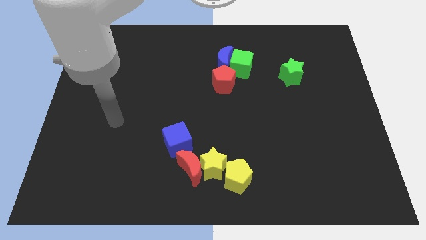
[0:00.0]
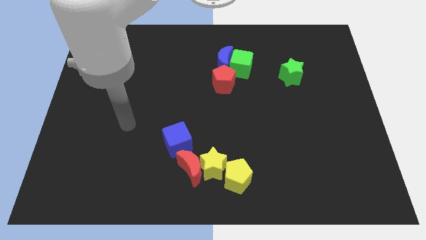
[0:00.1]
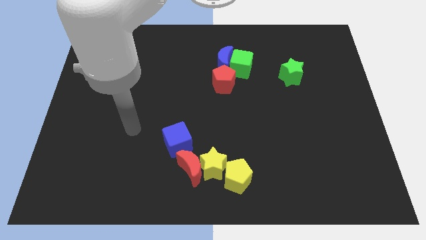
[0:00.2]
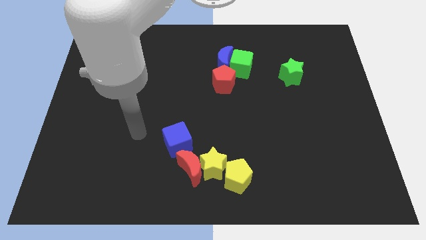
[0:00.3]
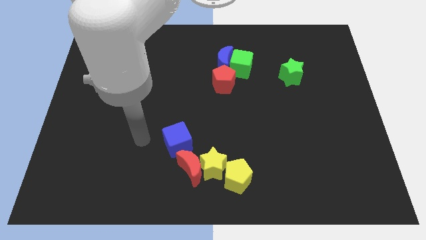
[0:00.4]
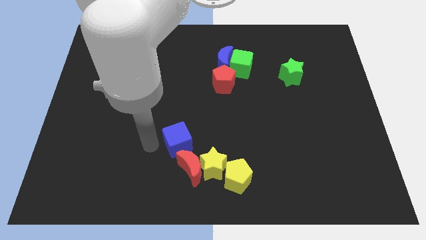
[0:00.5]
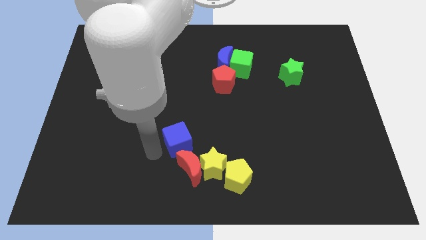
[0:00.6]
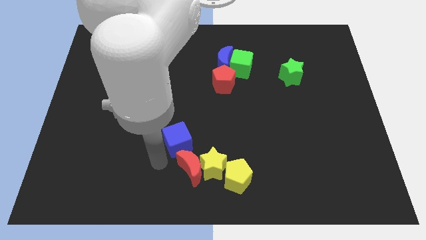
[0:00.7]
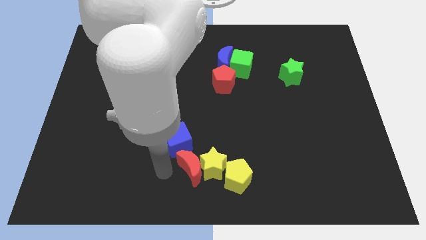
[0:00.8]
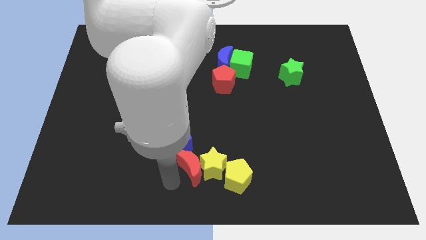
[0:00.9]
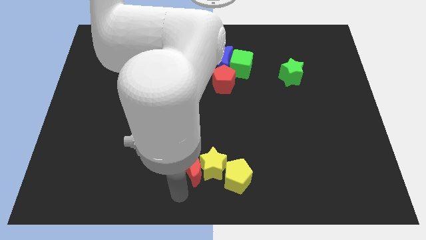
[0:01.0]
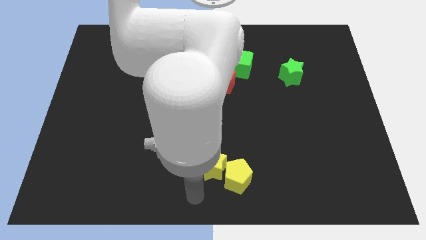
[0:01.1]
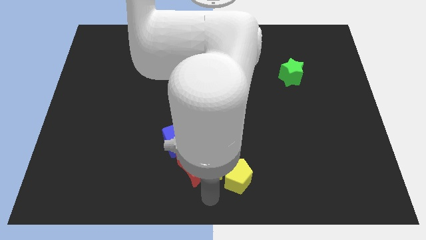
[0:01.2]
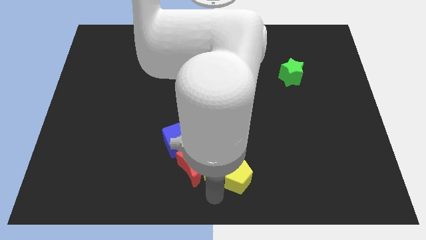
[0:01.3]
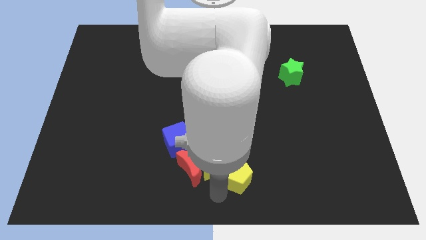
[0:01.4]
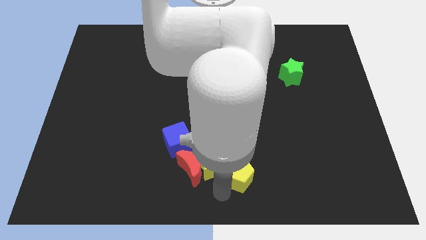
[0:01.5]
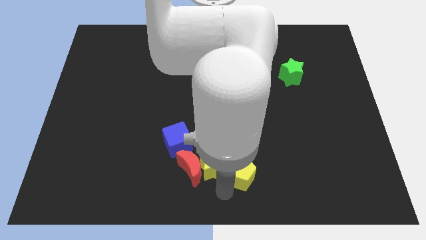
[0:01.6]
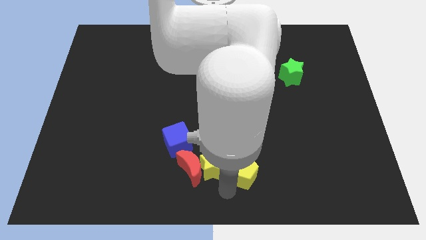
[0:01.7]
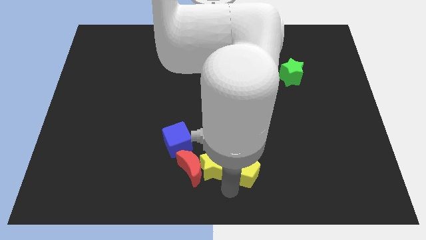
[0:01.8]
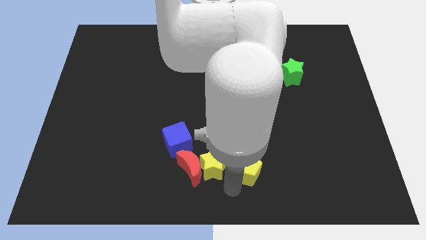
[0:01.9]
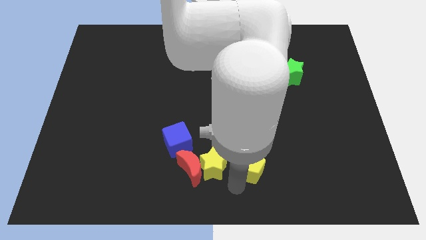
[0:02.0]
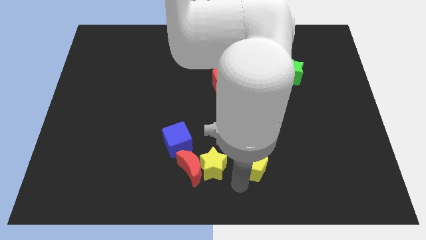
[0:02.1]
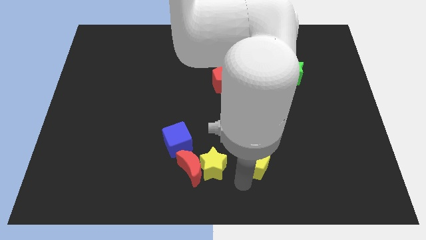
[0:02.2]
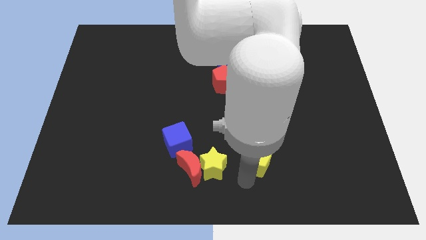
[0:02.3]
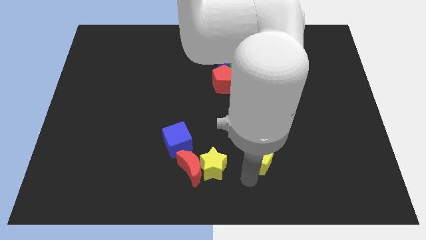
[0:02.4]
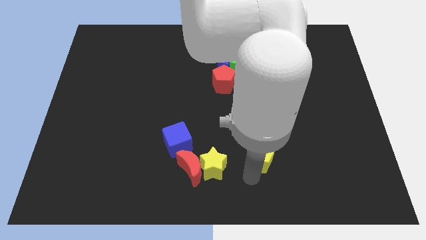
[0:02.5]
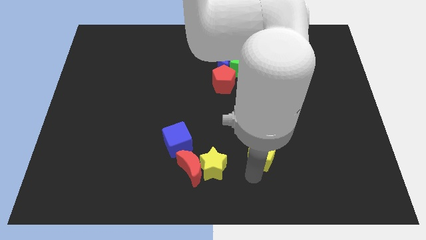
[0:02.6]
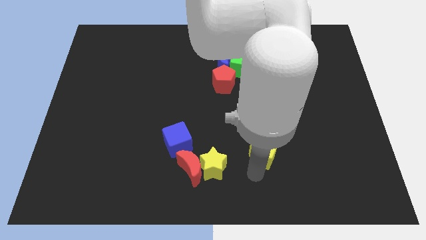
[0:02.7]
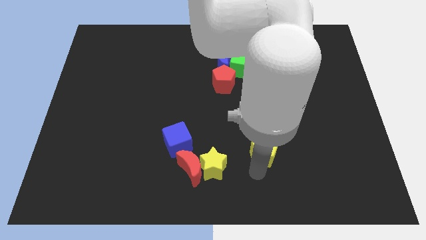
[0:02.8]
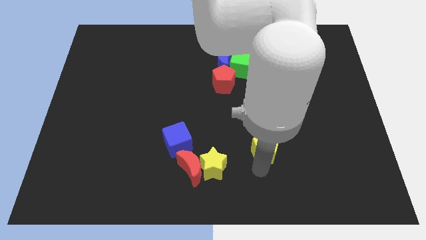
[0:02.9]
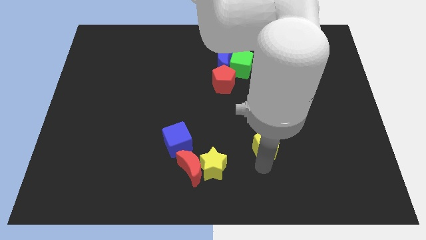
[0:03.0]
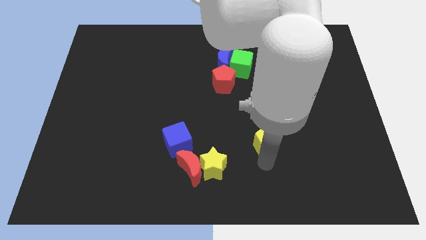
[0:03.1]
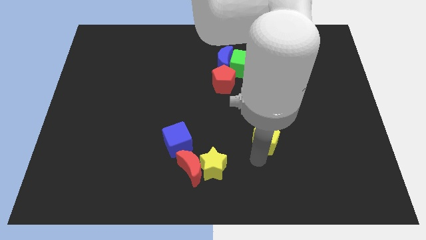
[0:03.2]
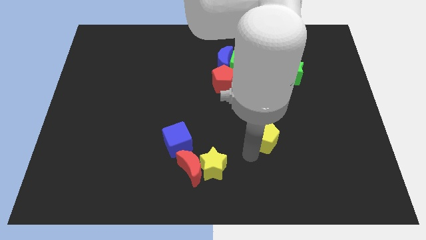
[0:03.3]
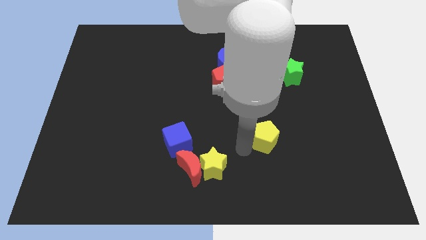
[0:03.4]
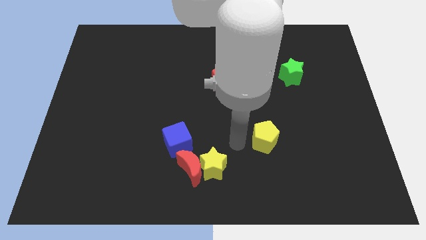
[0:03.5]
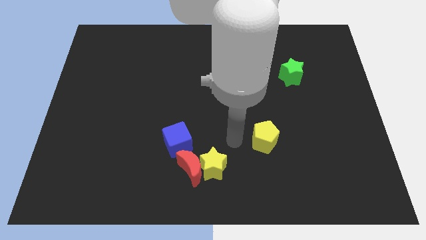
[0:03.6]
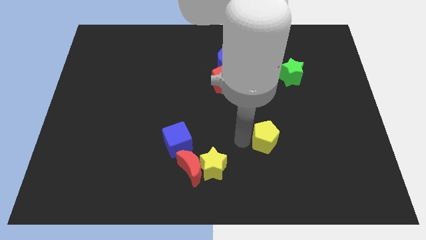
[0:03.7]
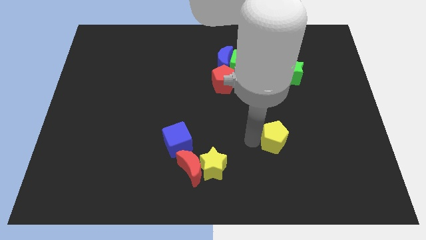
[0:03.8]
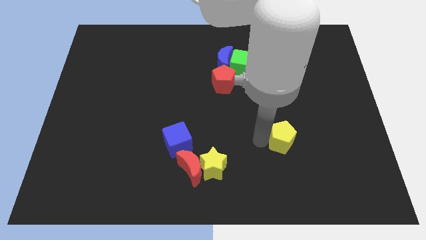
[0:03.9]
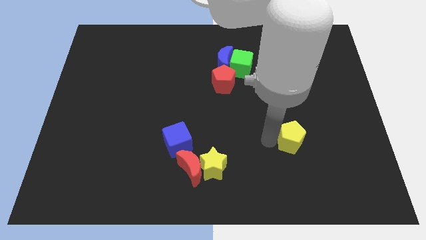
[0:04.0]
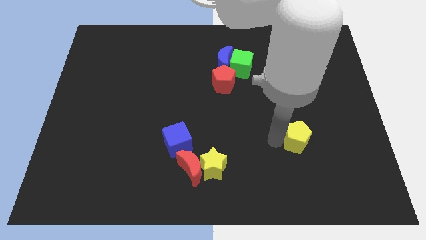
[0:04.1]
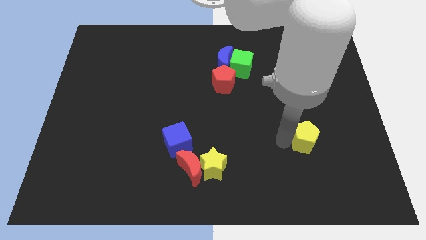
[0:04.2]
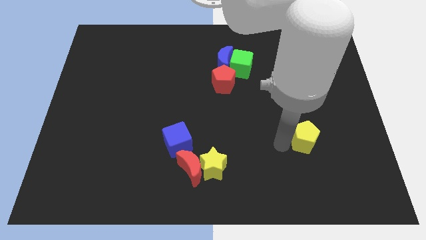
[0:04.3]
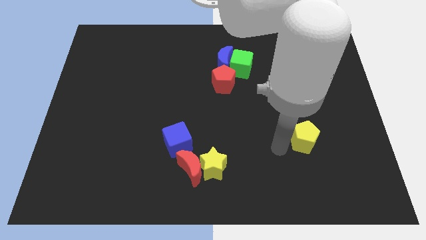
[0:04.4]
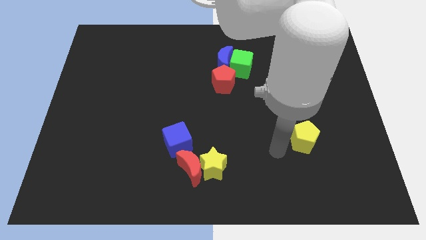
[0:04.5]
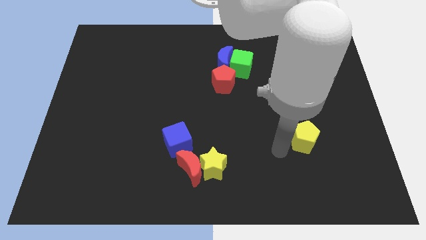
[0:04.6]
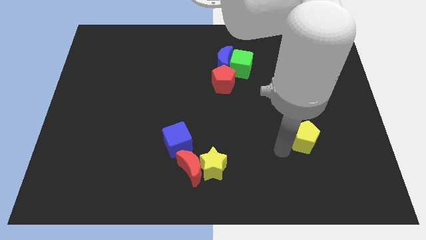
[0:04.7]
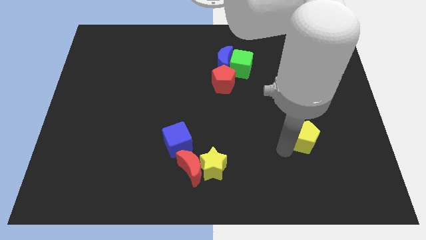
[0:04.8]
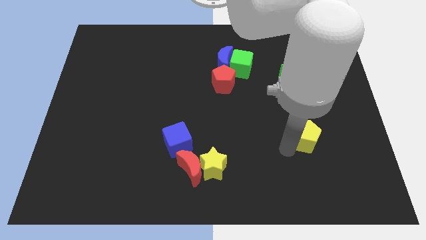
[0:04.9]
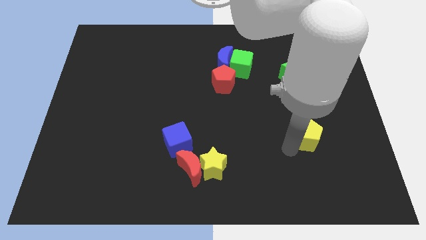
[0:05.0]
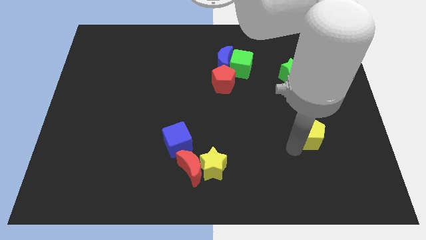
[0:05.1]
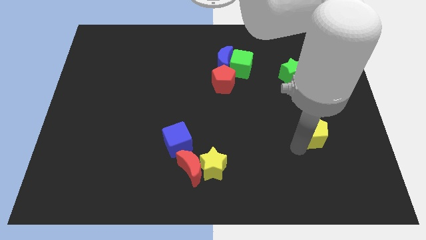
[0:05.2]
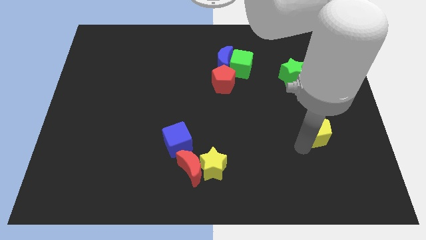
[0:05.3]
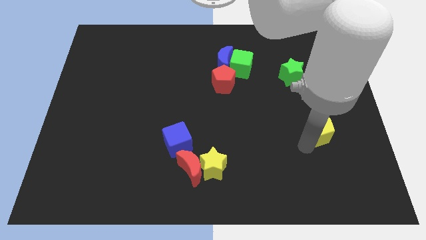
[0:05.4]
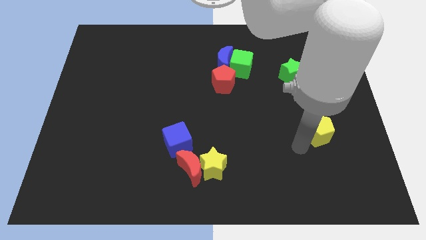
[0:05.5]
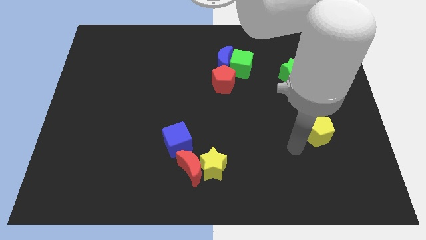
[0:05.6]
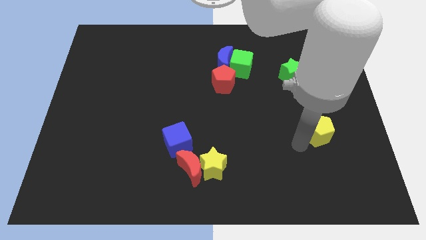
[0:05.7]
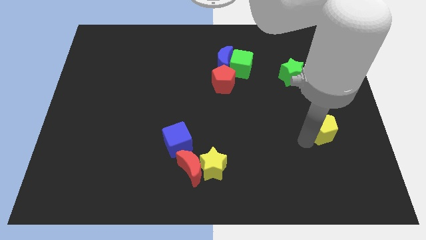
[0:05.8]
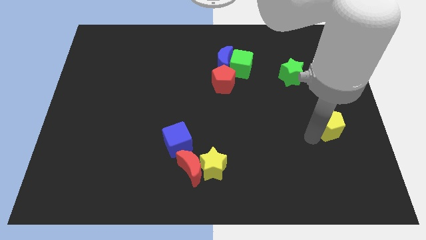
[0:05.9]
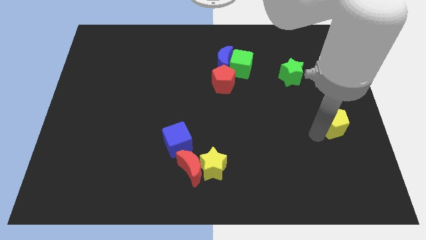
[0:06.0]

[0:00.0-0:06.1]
put the yellow pentagon to the right side of the board

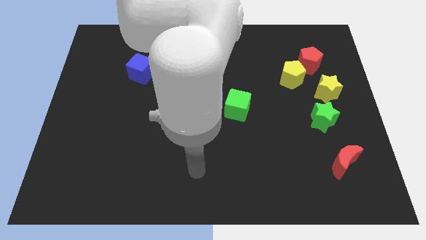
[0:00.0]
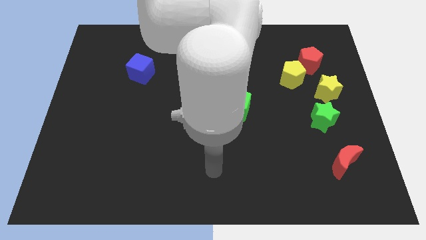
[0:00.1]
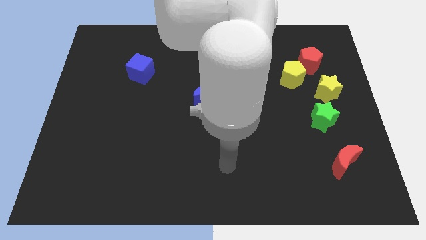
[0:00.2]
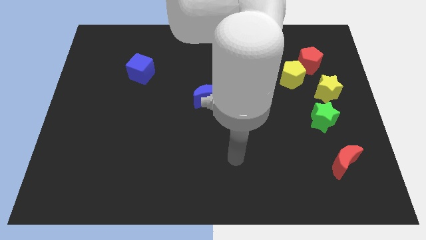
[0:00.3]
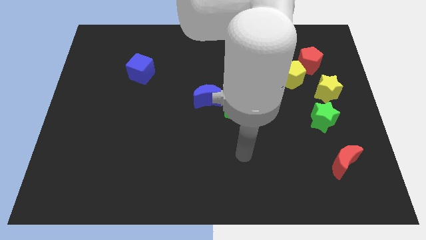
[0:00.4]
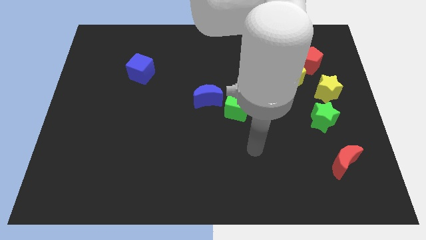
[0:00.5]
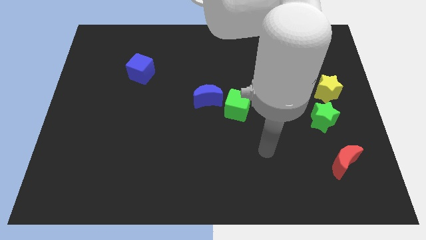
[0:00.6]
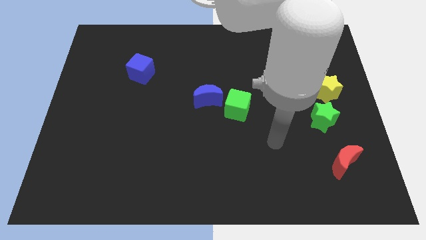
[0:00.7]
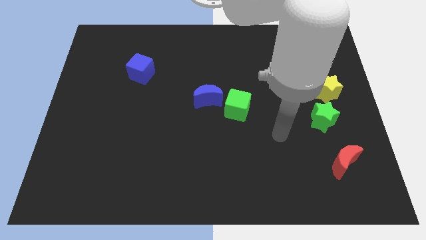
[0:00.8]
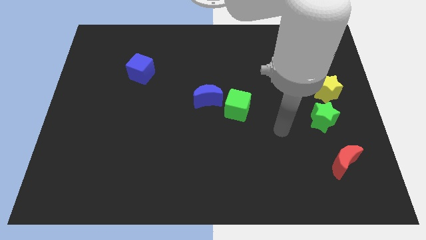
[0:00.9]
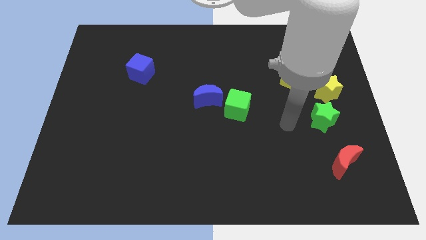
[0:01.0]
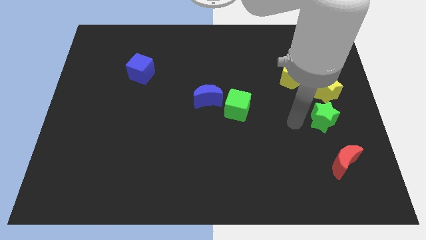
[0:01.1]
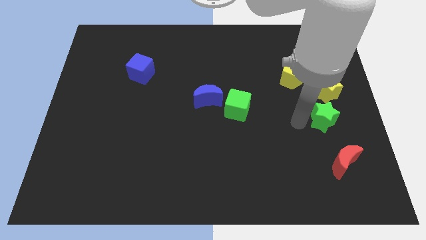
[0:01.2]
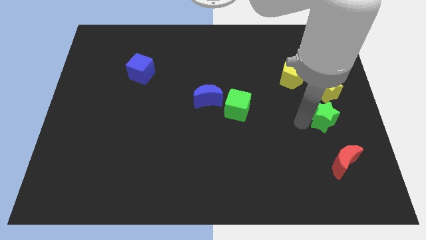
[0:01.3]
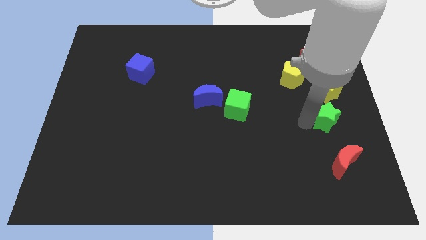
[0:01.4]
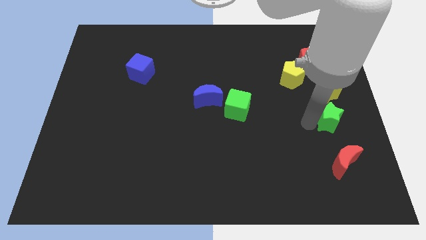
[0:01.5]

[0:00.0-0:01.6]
move the green star to the right side of the board
